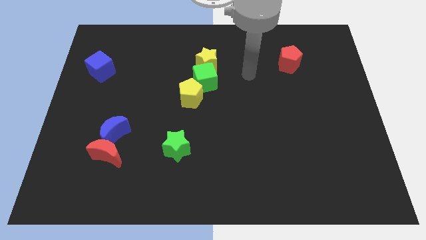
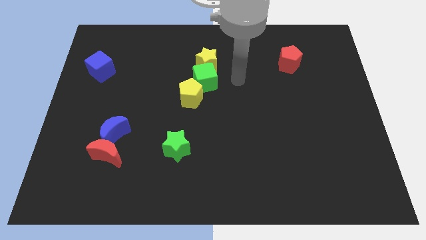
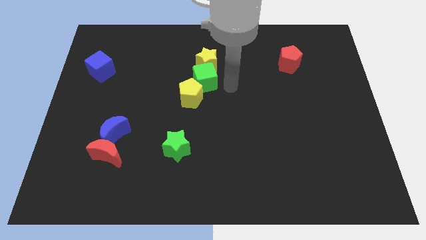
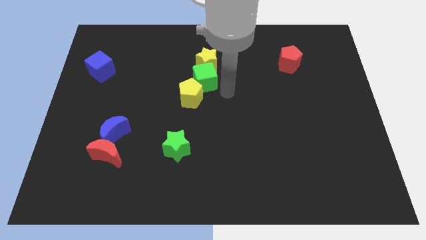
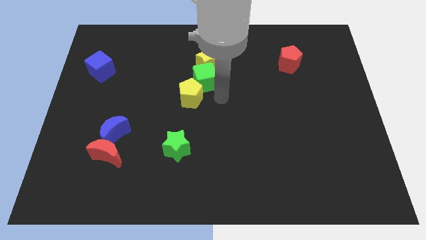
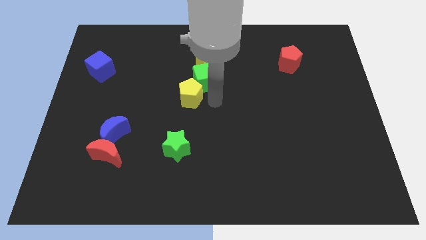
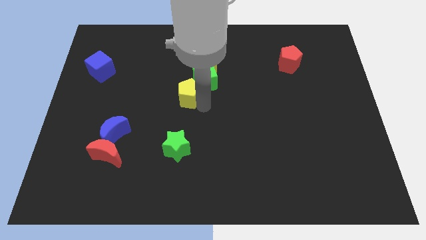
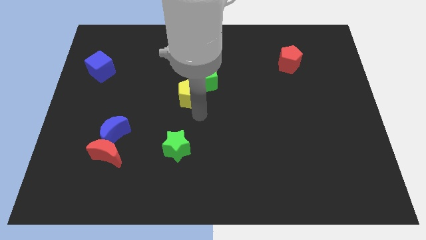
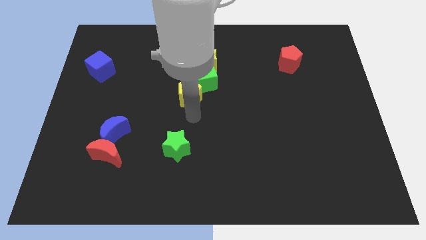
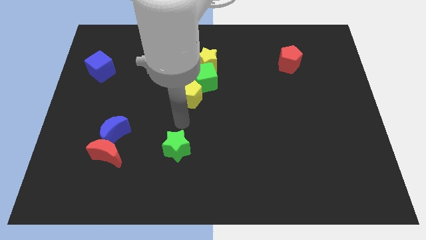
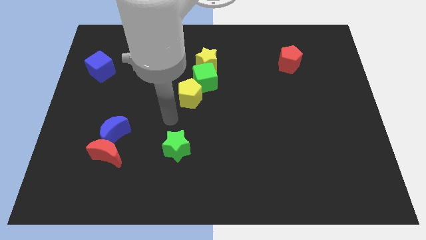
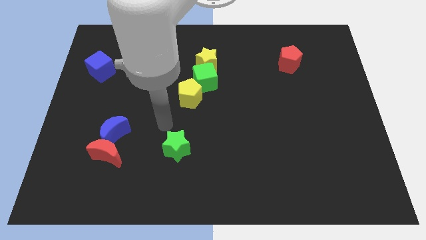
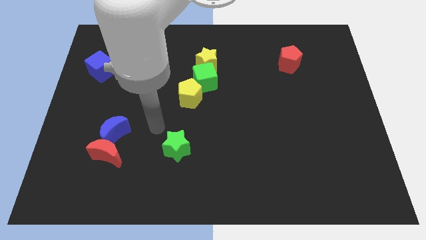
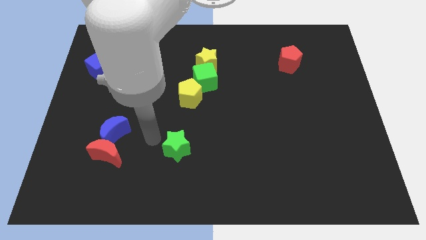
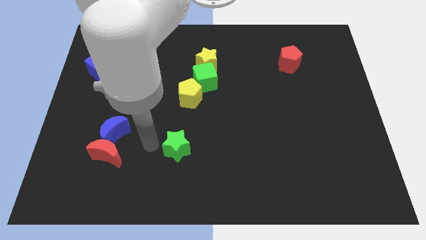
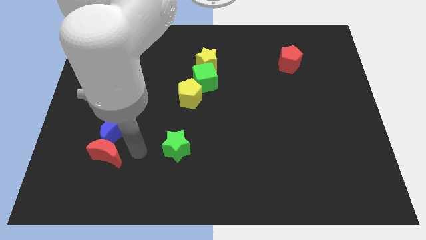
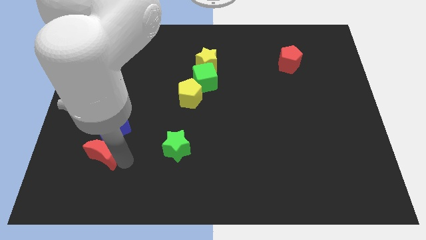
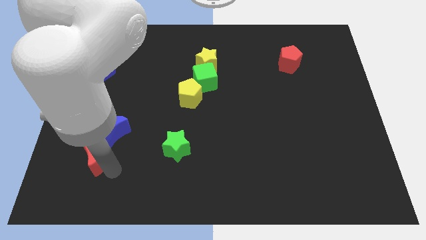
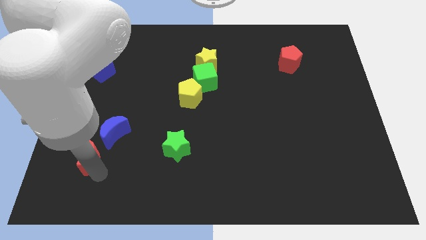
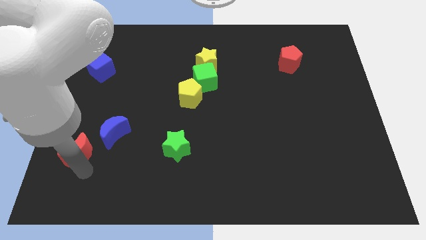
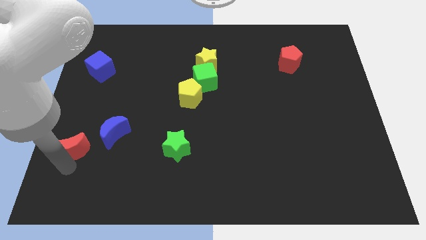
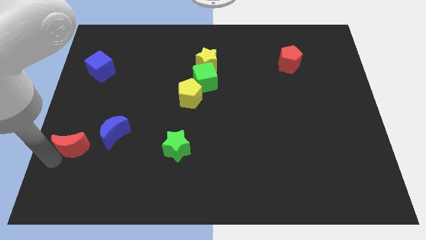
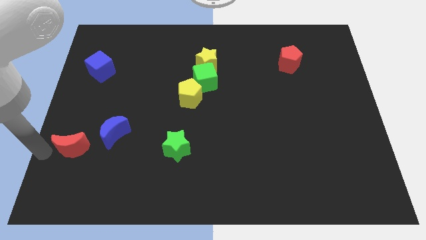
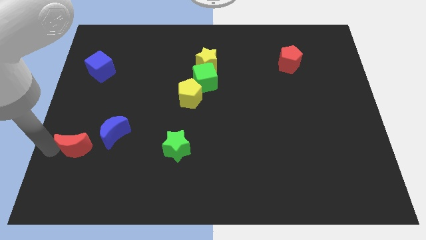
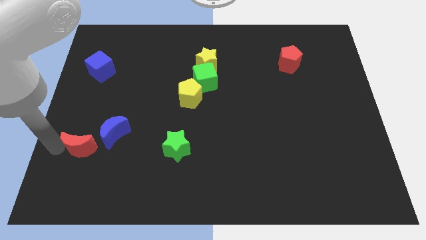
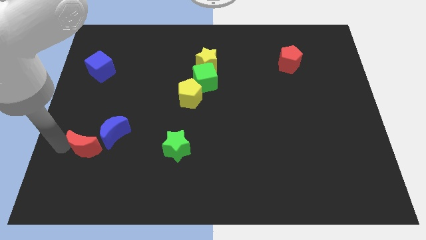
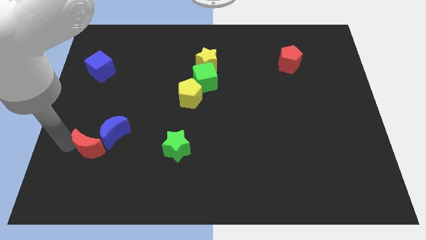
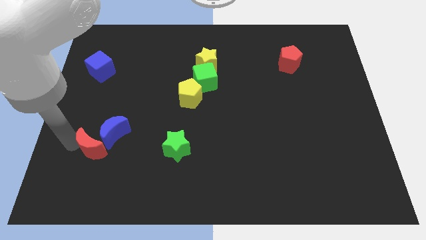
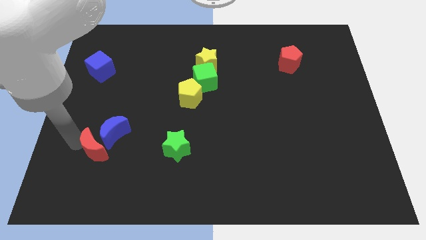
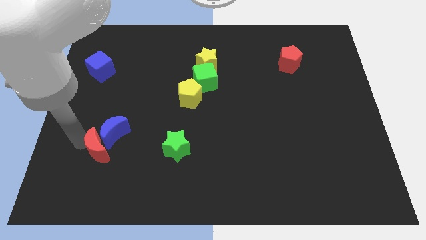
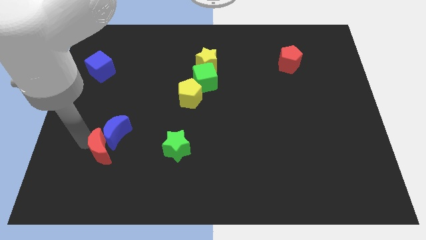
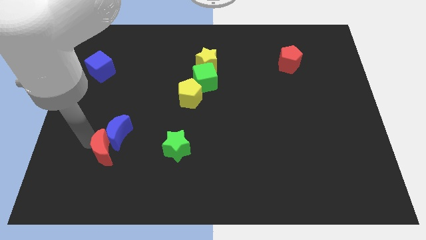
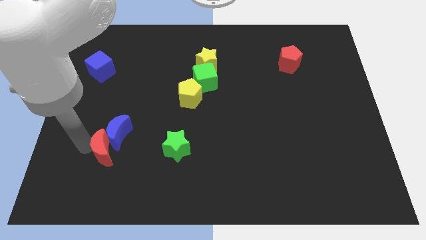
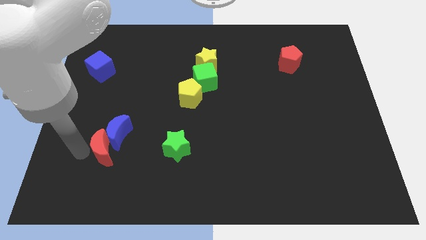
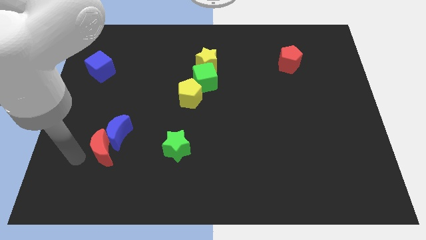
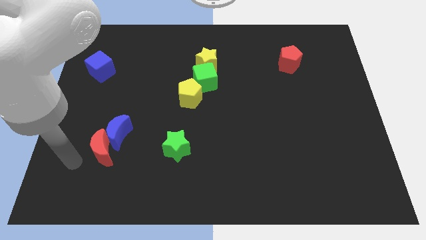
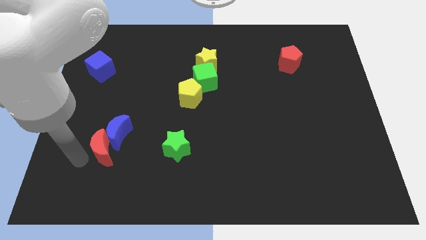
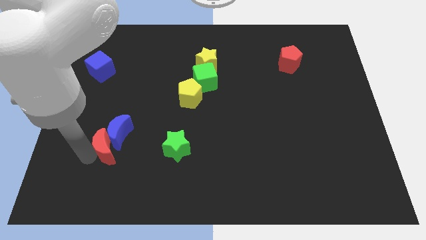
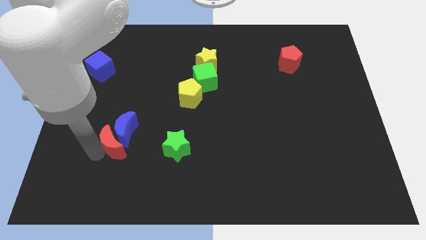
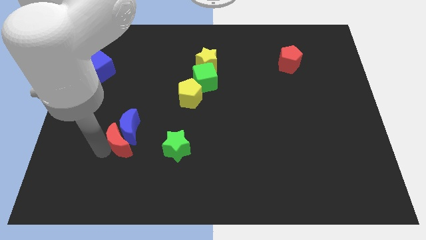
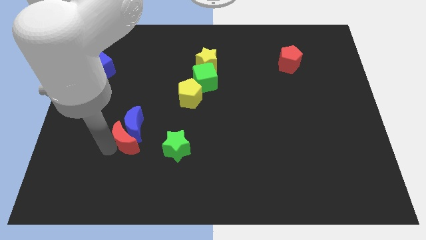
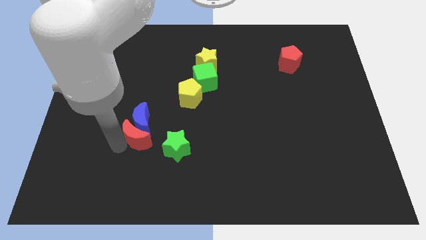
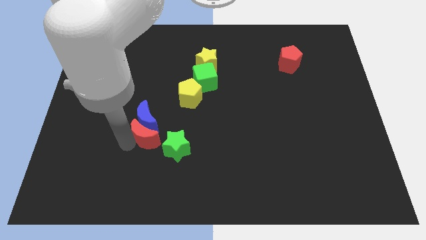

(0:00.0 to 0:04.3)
slide the red moon a little bit diagonally up and right

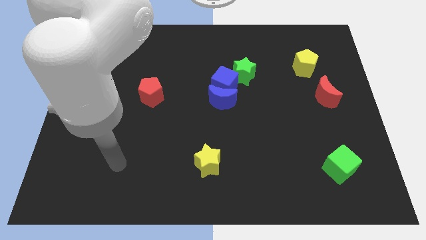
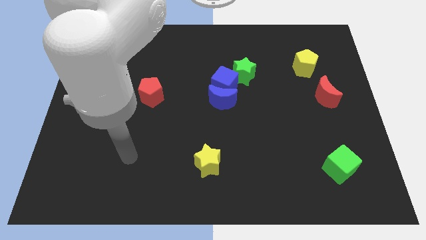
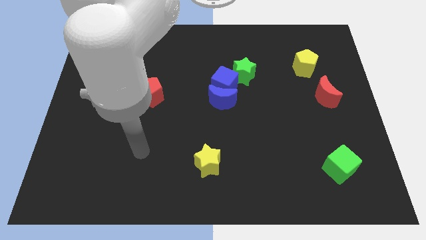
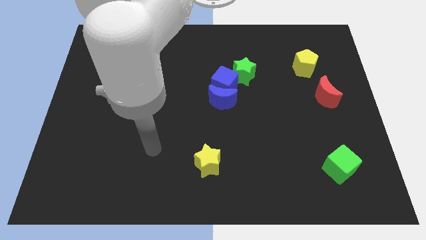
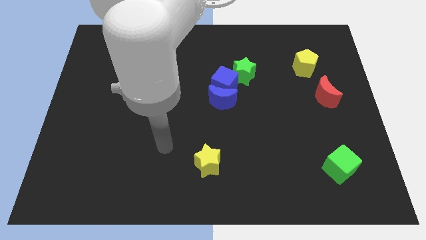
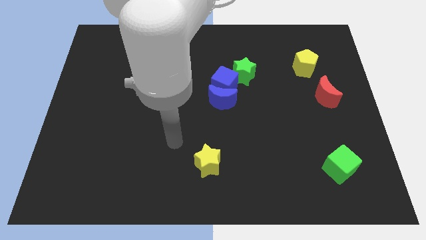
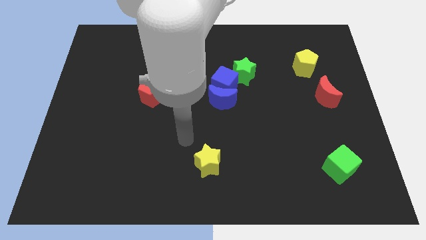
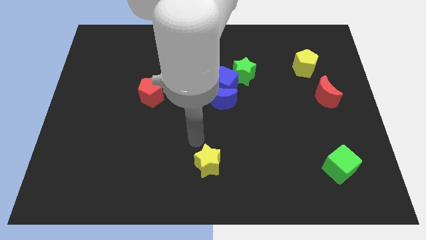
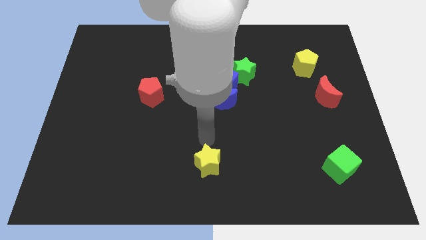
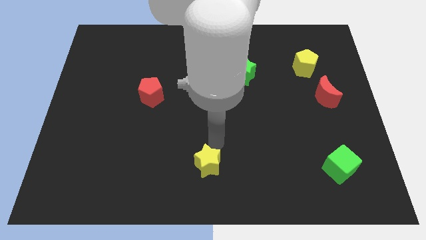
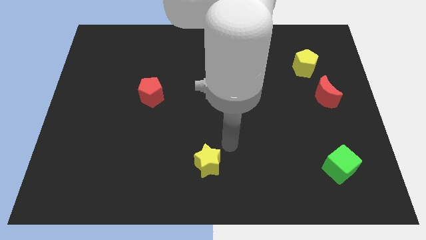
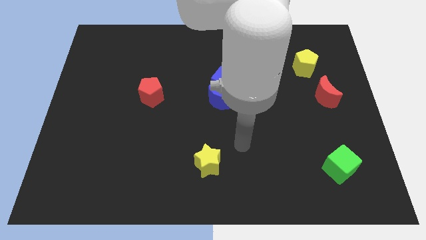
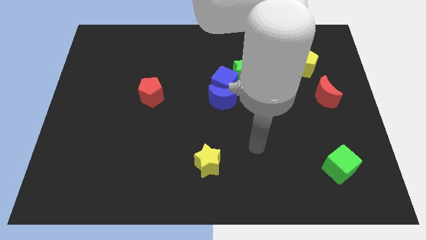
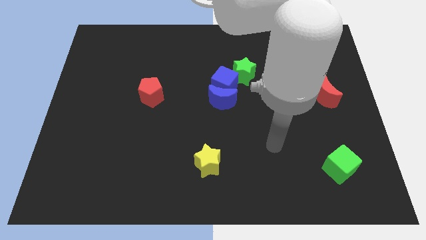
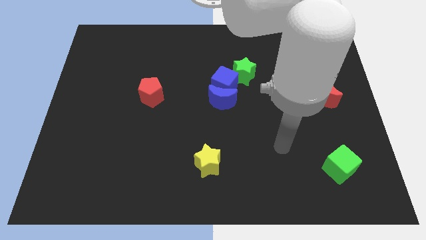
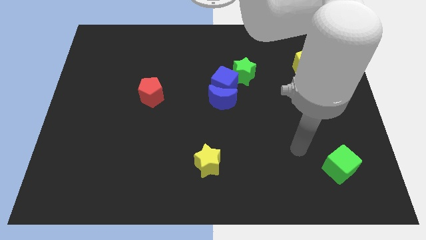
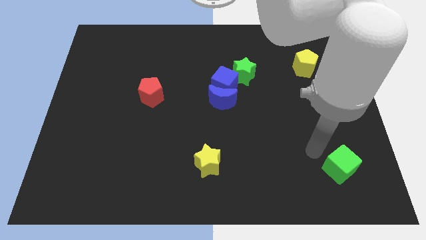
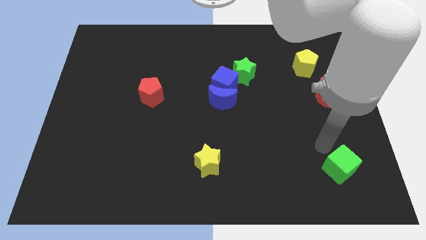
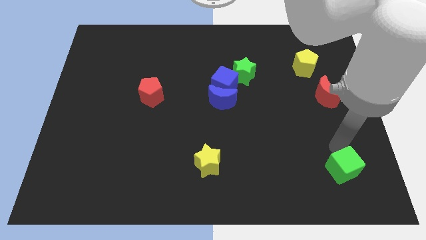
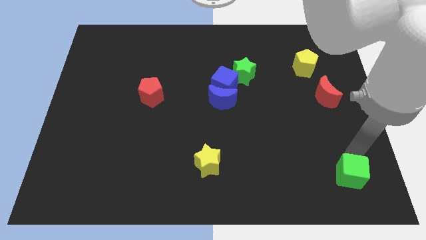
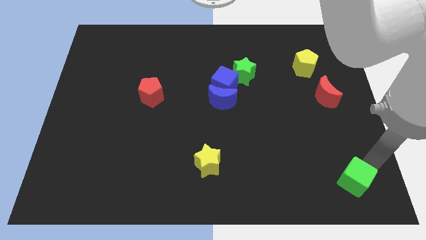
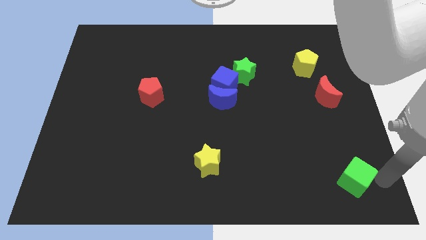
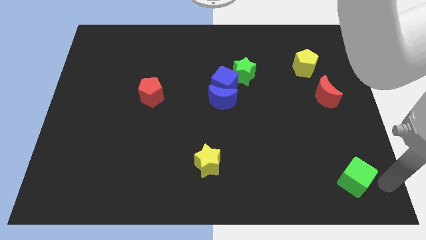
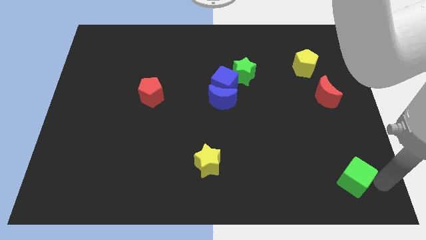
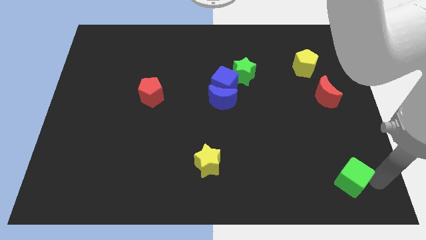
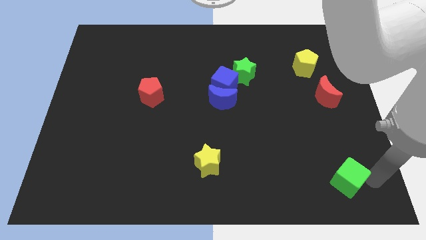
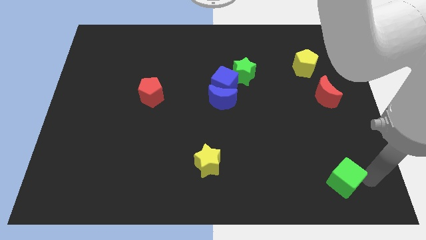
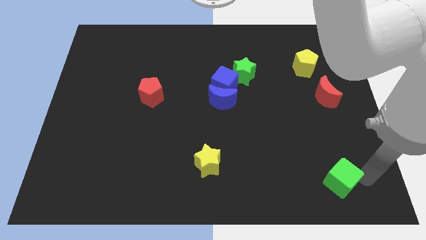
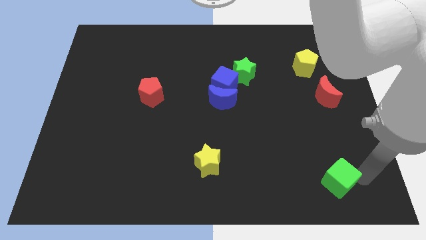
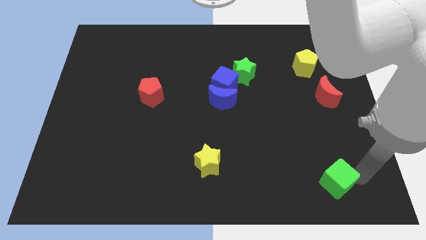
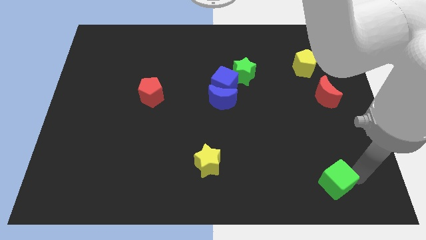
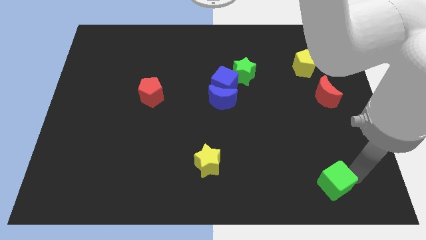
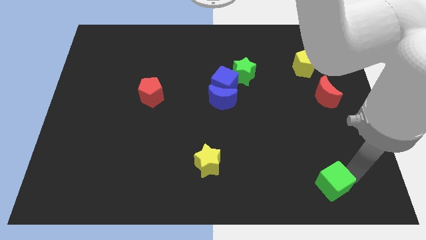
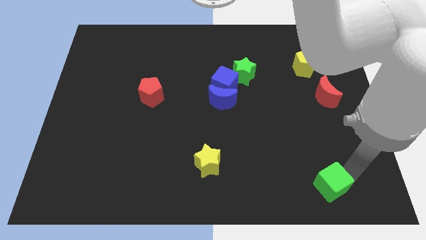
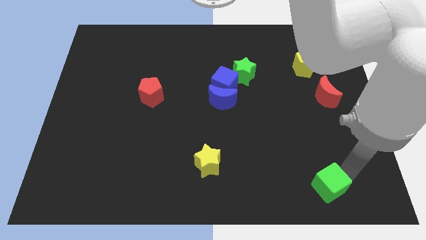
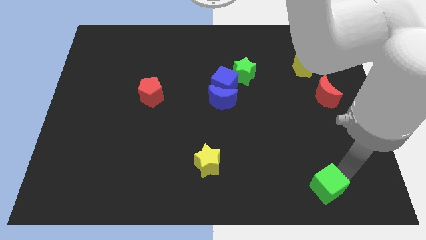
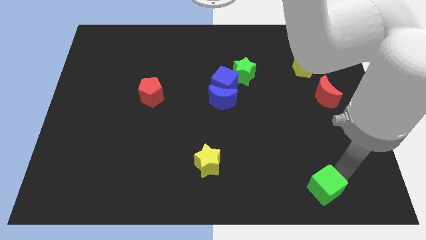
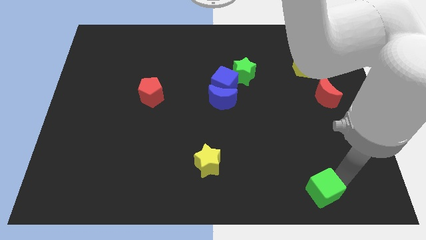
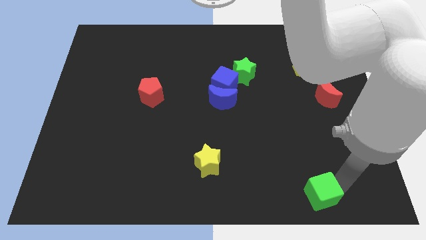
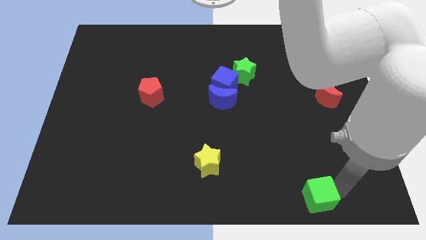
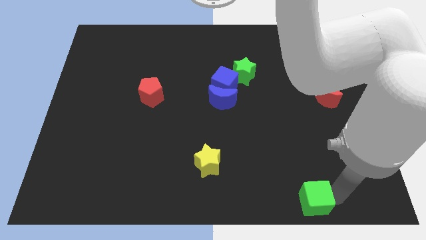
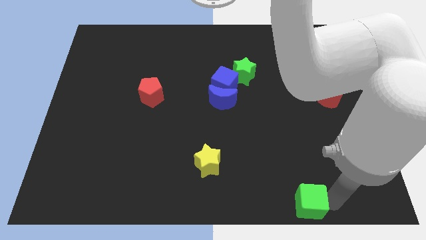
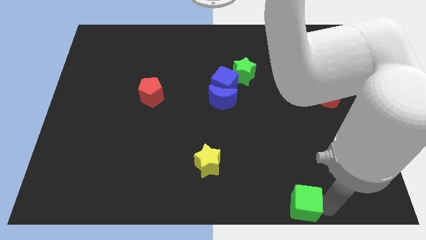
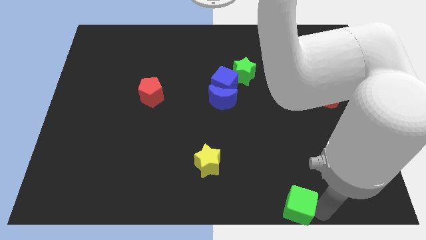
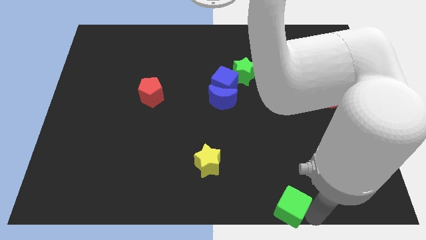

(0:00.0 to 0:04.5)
move the green cube to the left a bit
